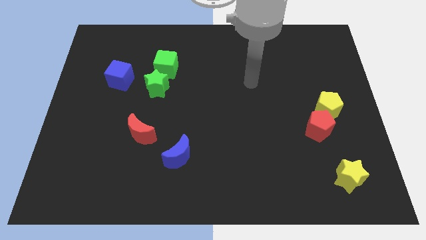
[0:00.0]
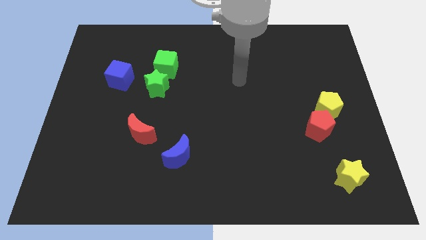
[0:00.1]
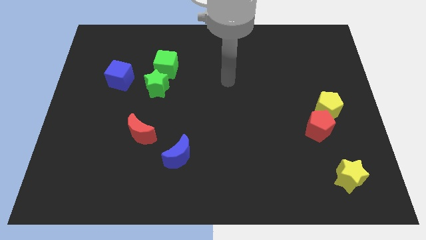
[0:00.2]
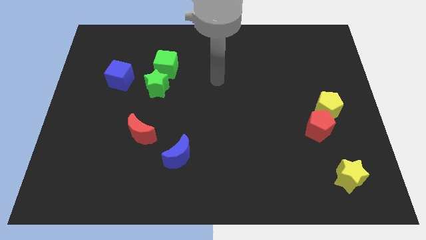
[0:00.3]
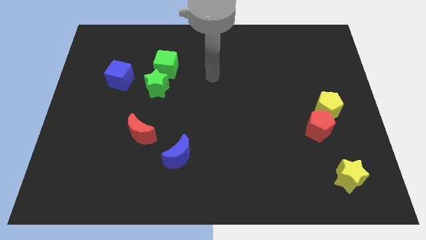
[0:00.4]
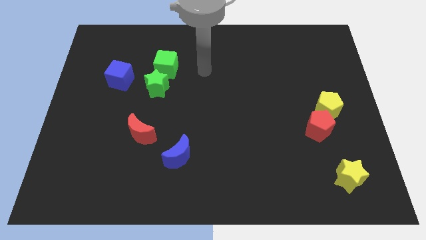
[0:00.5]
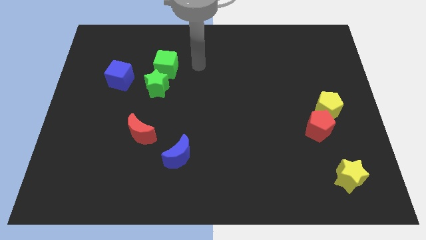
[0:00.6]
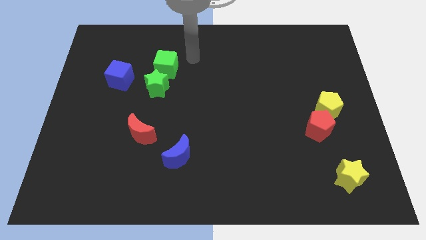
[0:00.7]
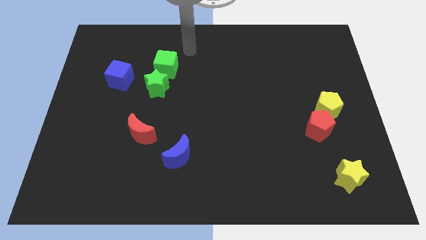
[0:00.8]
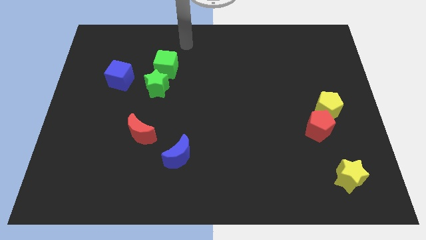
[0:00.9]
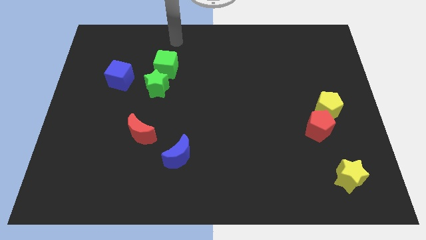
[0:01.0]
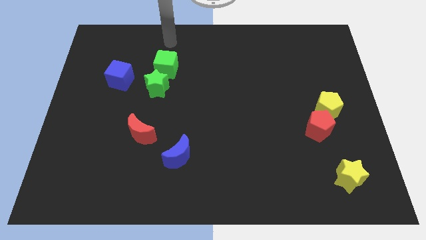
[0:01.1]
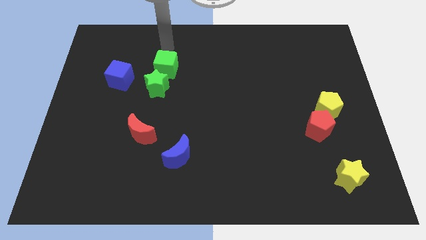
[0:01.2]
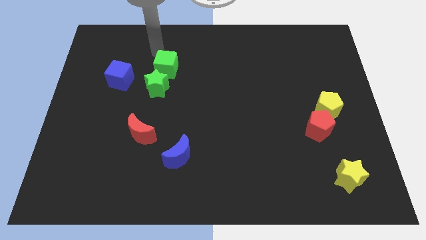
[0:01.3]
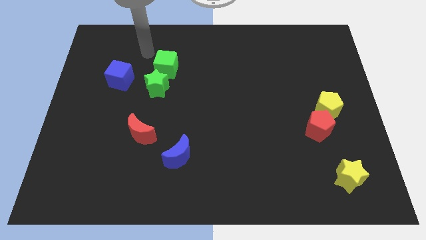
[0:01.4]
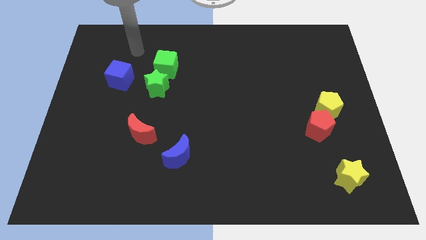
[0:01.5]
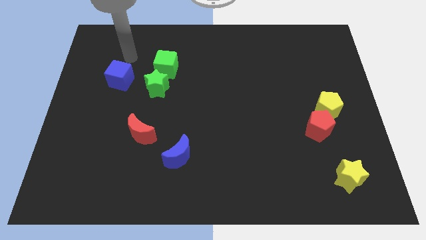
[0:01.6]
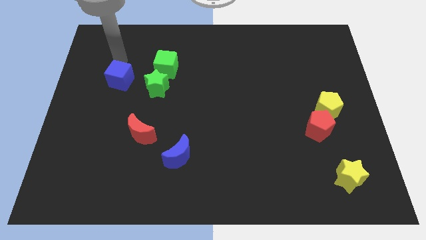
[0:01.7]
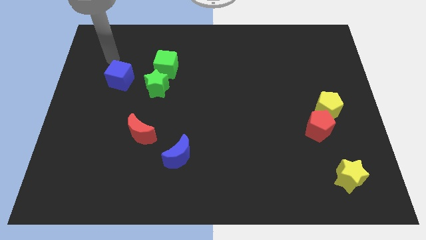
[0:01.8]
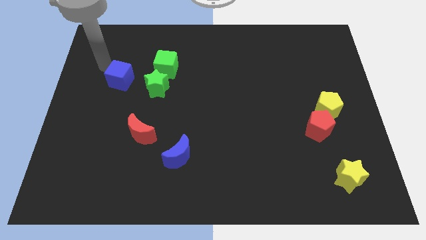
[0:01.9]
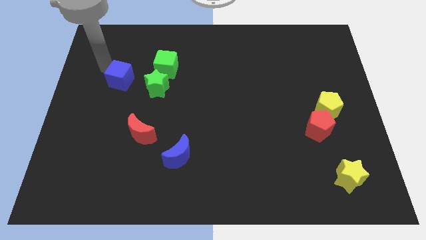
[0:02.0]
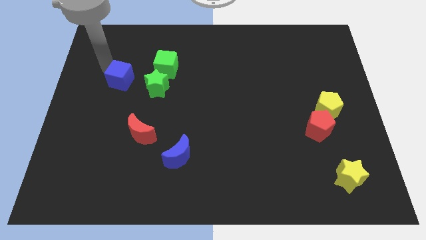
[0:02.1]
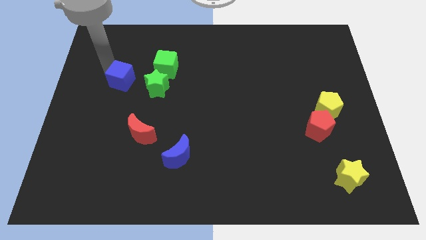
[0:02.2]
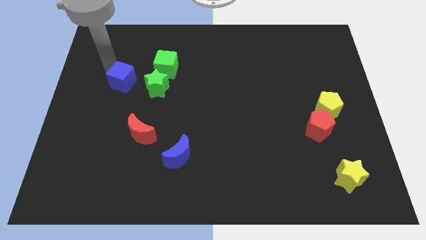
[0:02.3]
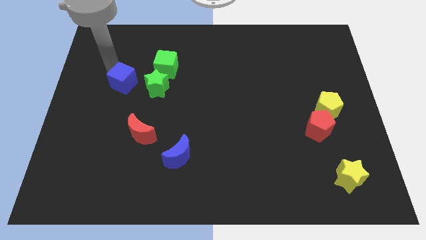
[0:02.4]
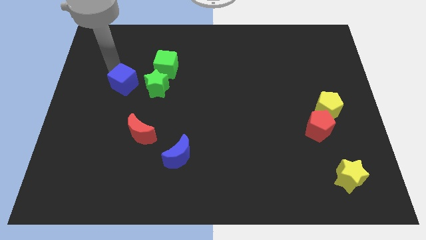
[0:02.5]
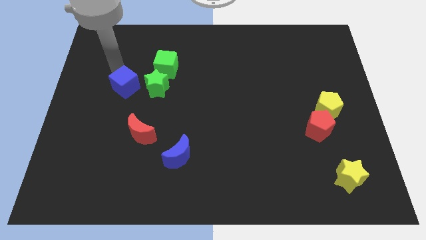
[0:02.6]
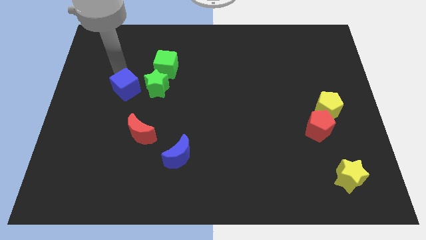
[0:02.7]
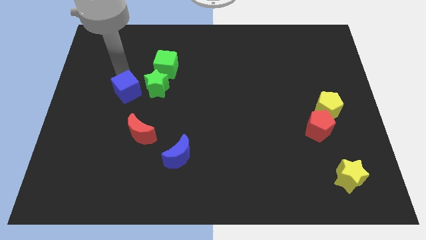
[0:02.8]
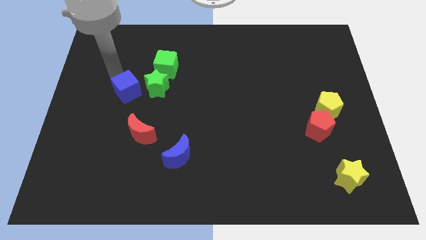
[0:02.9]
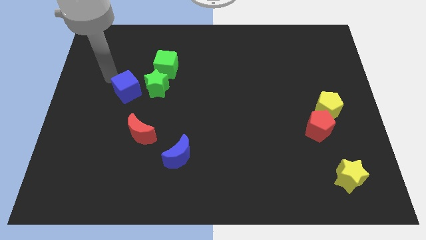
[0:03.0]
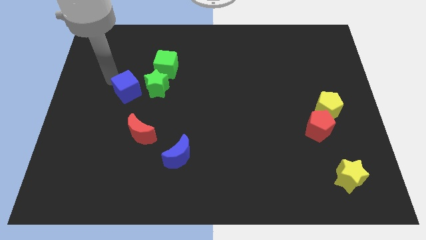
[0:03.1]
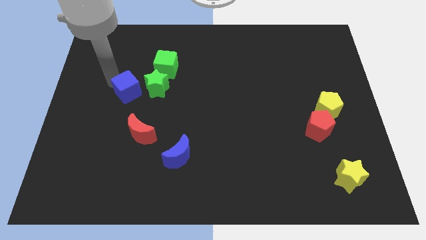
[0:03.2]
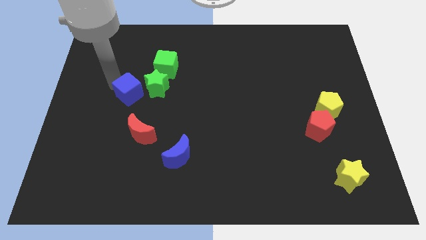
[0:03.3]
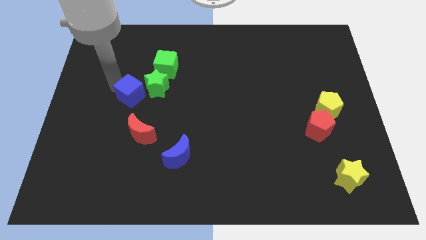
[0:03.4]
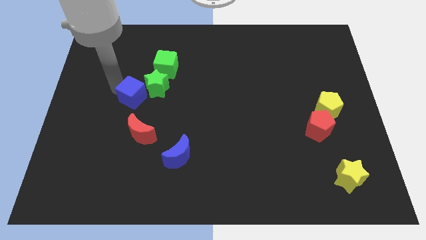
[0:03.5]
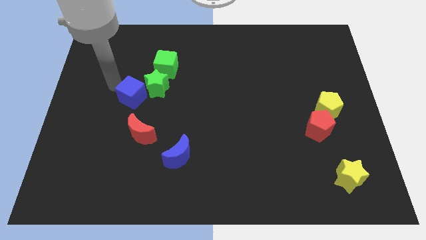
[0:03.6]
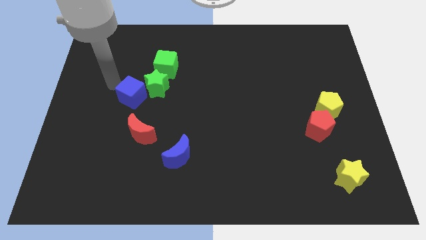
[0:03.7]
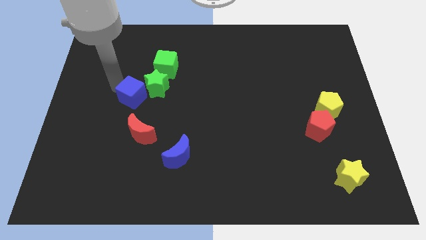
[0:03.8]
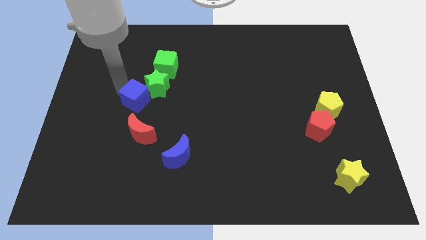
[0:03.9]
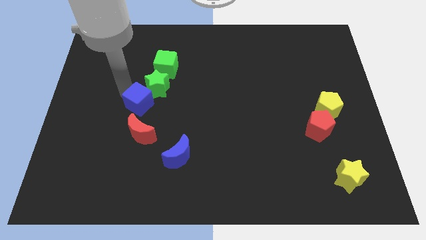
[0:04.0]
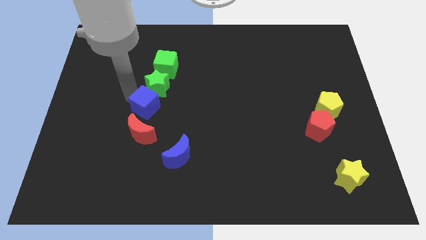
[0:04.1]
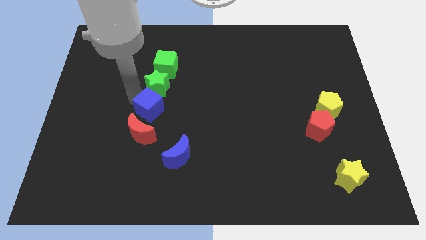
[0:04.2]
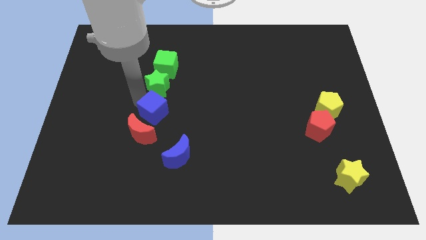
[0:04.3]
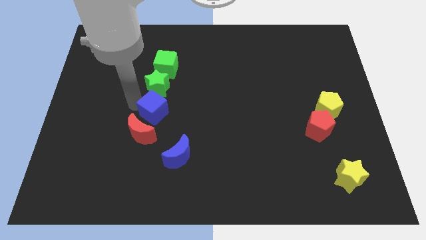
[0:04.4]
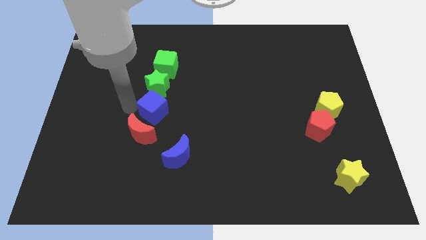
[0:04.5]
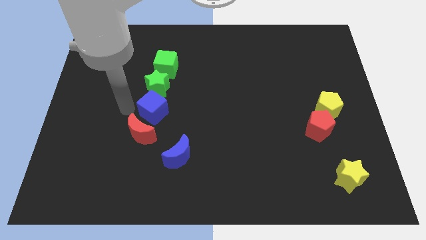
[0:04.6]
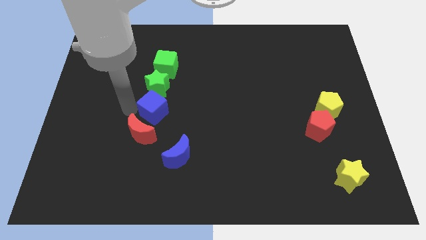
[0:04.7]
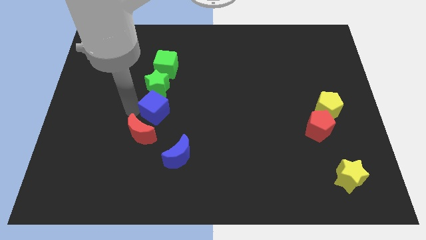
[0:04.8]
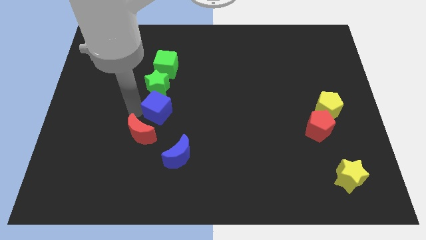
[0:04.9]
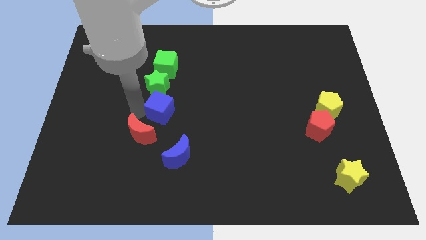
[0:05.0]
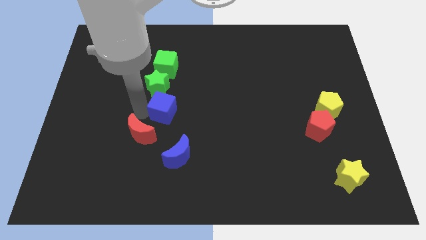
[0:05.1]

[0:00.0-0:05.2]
push the blue cube to the right somewhat

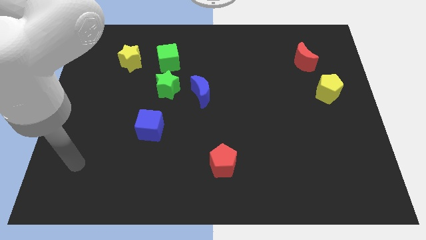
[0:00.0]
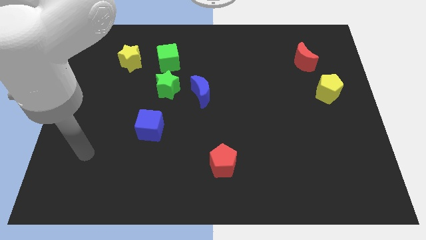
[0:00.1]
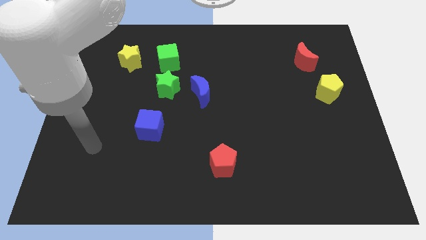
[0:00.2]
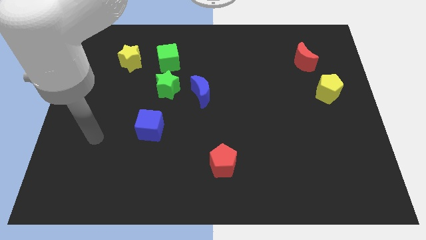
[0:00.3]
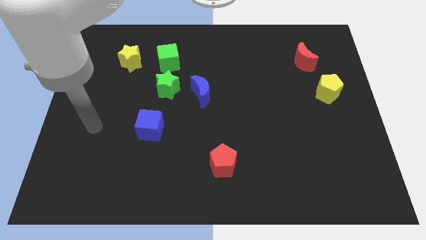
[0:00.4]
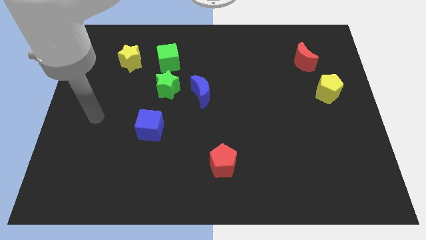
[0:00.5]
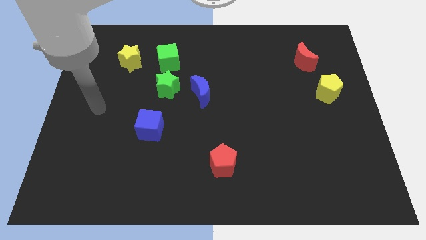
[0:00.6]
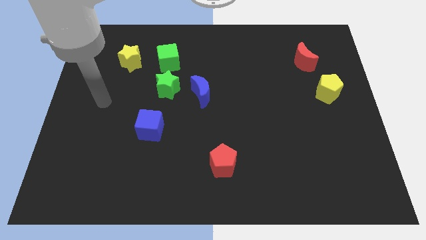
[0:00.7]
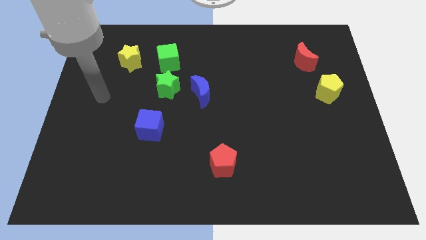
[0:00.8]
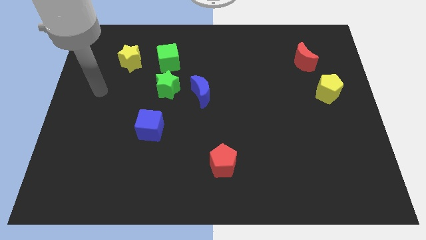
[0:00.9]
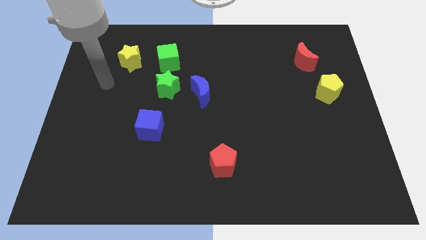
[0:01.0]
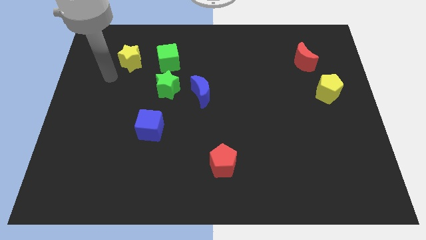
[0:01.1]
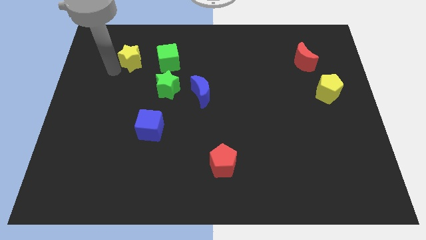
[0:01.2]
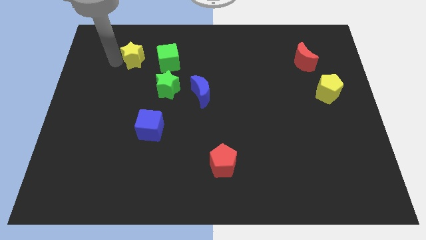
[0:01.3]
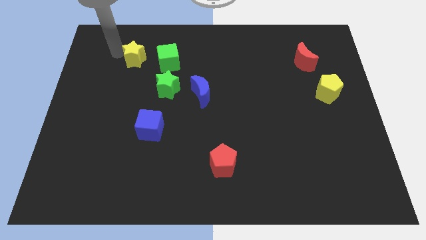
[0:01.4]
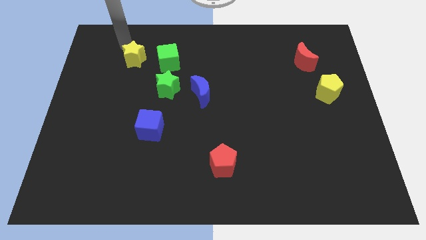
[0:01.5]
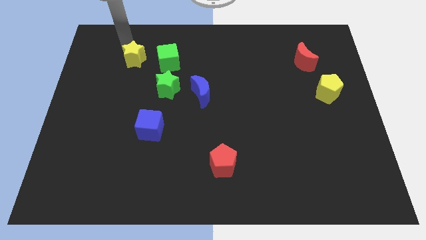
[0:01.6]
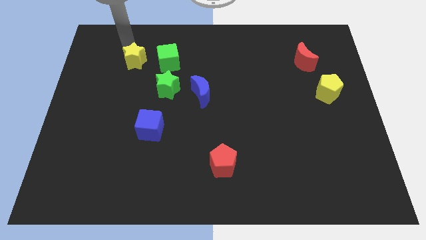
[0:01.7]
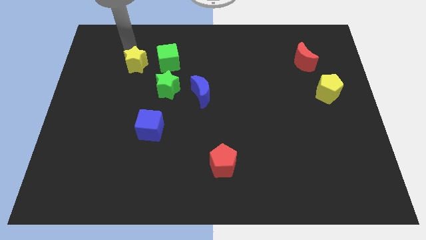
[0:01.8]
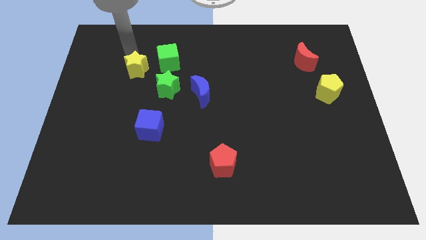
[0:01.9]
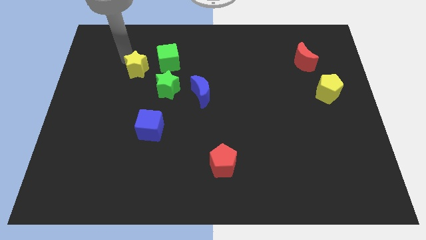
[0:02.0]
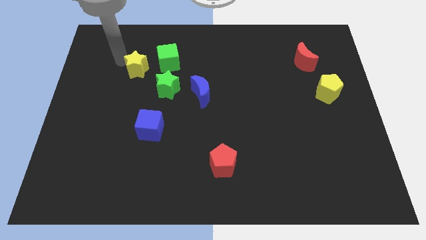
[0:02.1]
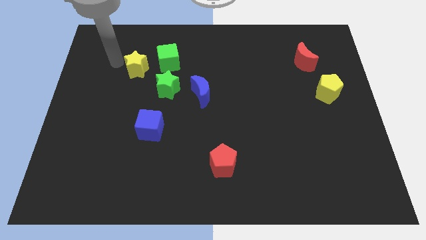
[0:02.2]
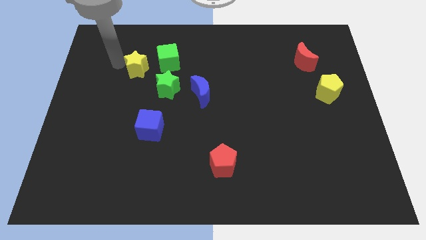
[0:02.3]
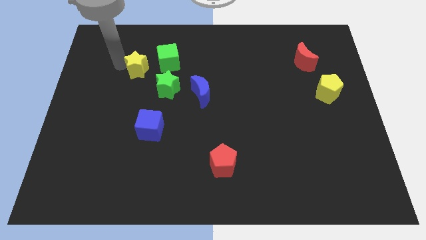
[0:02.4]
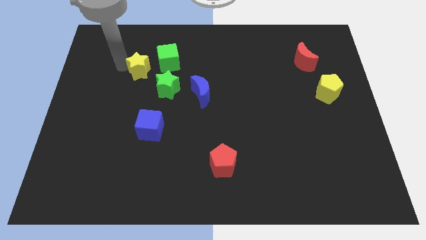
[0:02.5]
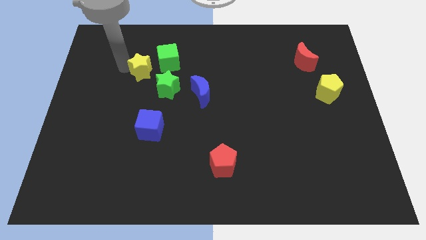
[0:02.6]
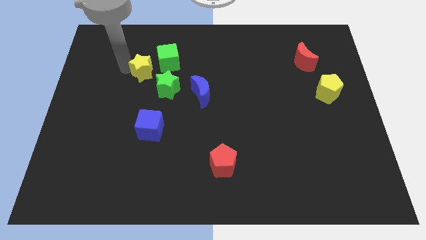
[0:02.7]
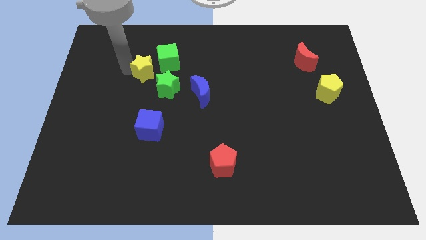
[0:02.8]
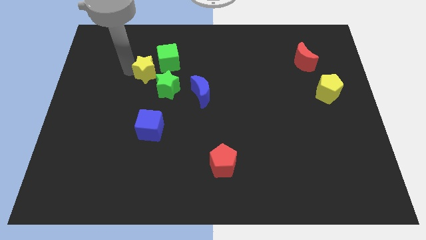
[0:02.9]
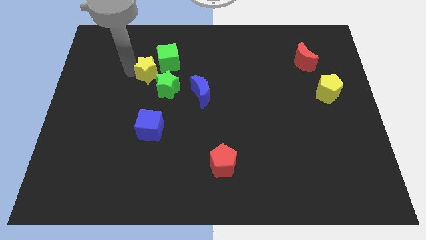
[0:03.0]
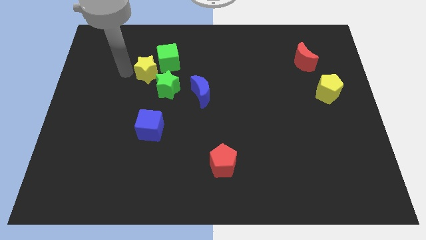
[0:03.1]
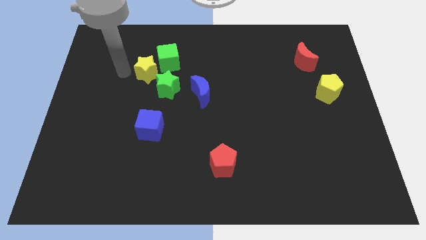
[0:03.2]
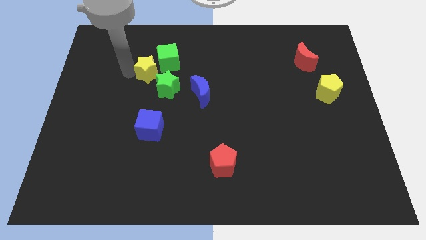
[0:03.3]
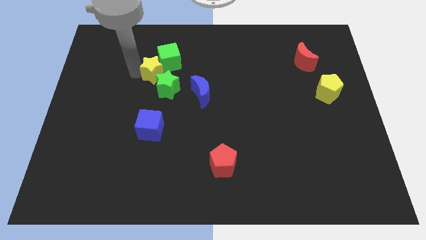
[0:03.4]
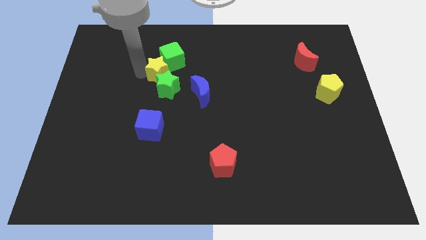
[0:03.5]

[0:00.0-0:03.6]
push the yellow star right a little bit
